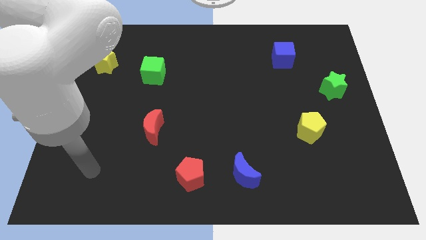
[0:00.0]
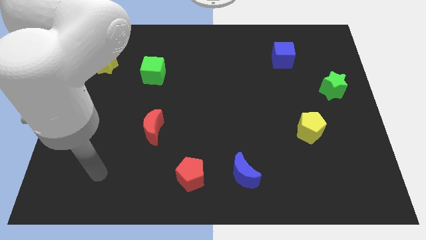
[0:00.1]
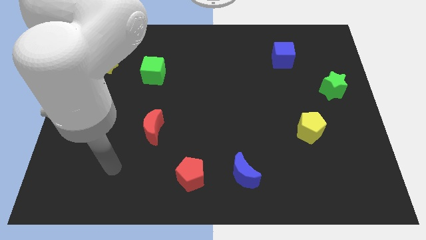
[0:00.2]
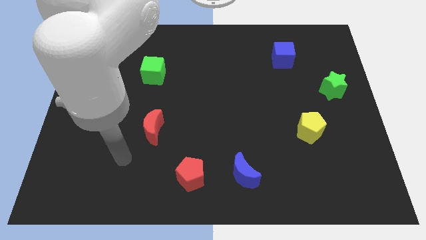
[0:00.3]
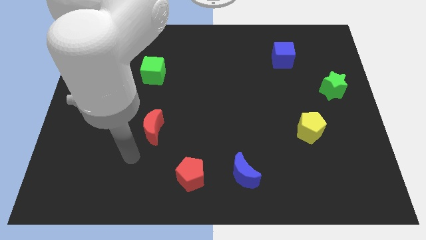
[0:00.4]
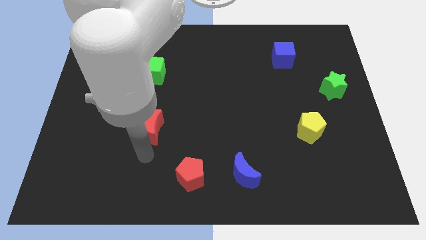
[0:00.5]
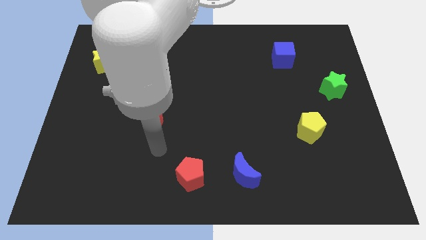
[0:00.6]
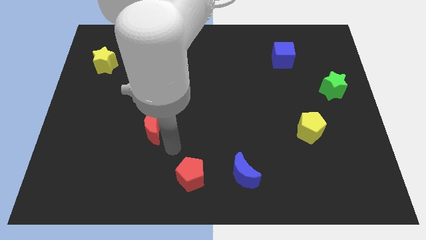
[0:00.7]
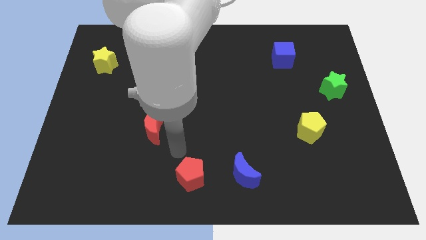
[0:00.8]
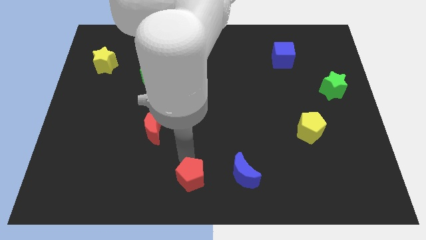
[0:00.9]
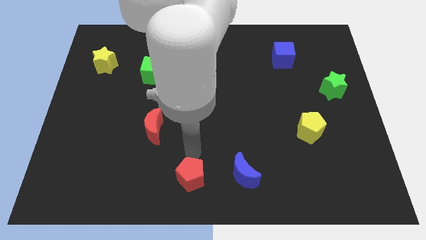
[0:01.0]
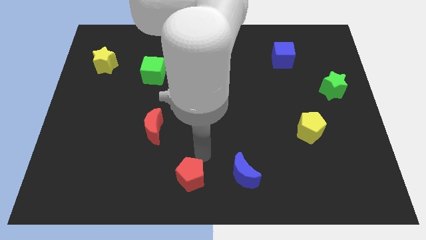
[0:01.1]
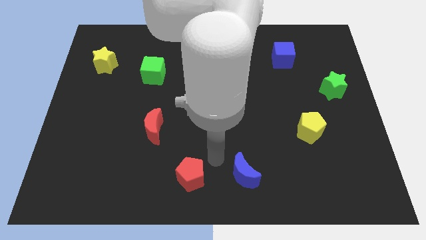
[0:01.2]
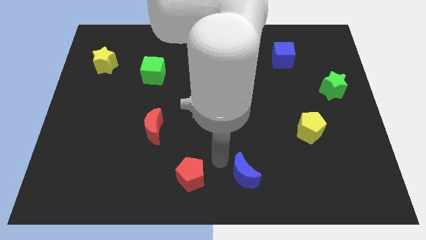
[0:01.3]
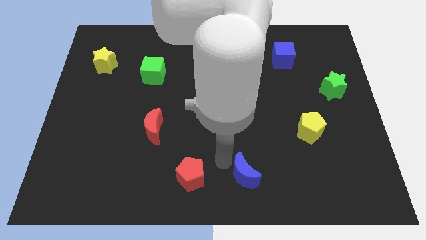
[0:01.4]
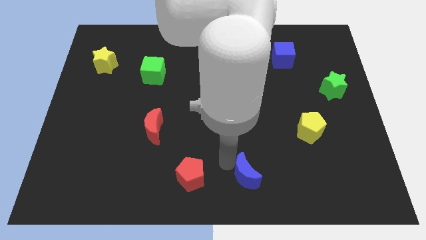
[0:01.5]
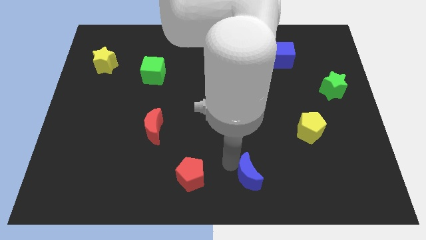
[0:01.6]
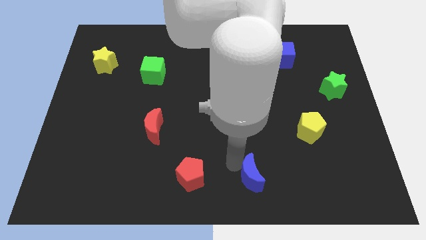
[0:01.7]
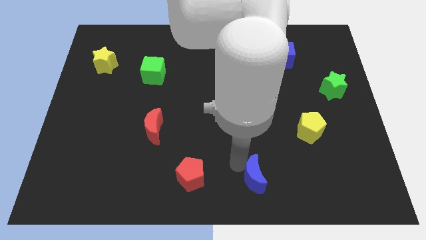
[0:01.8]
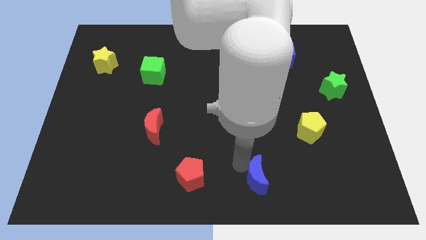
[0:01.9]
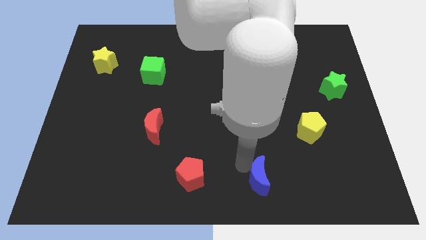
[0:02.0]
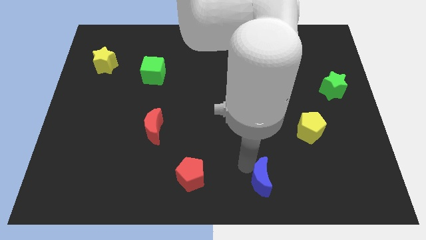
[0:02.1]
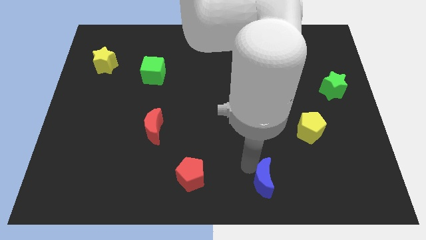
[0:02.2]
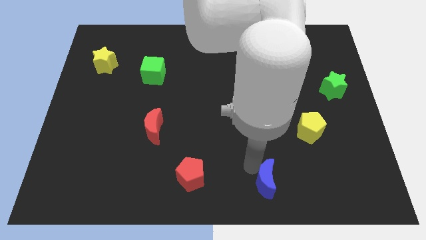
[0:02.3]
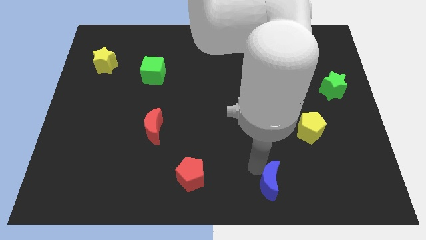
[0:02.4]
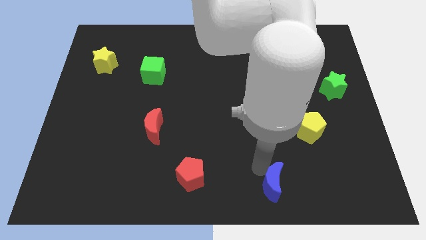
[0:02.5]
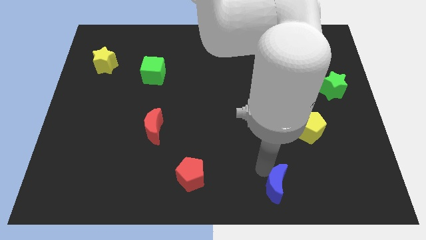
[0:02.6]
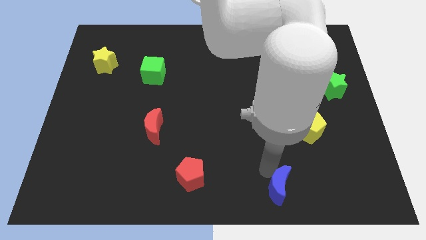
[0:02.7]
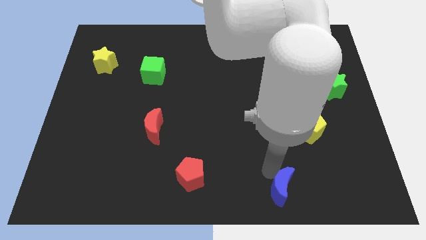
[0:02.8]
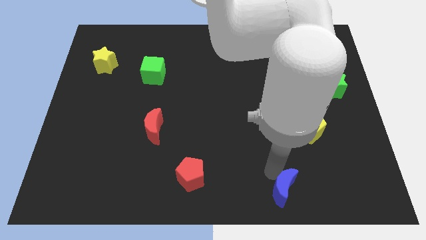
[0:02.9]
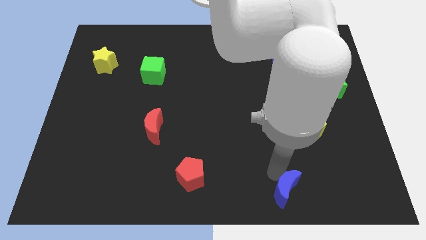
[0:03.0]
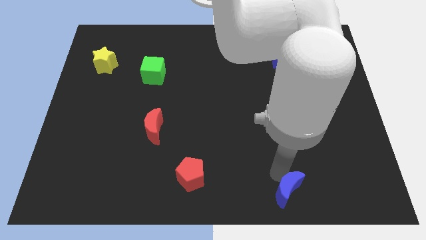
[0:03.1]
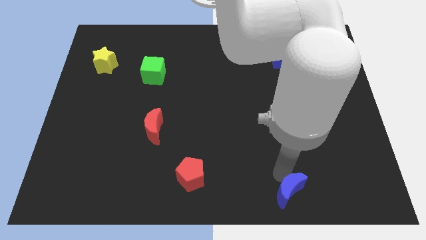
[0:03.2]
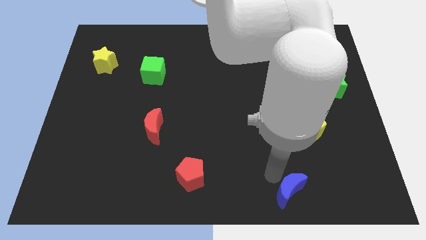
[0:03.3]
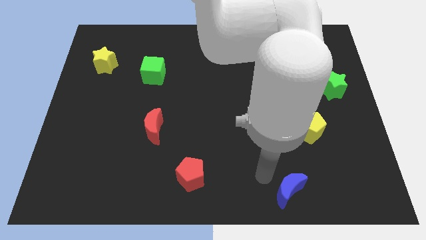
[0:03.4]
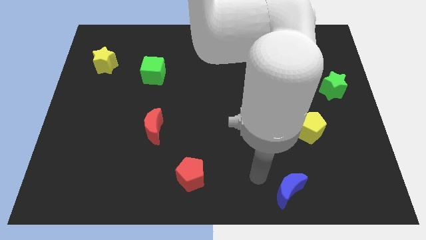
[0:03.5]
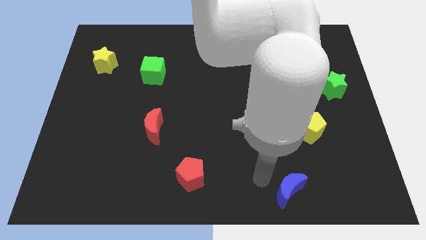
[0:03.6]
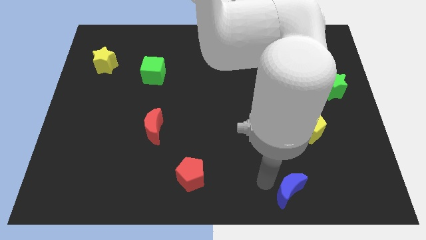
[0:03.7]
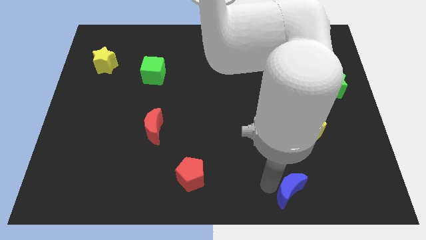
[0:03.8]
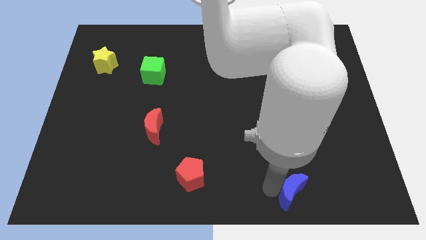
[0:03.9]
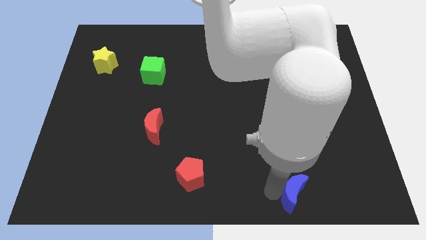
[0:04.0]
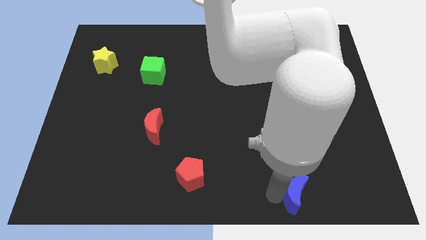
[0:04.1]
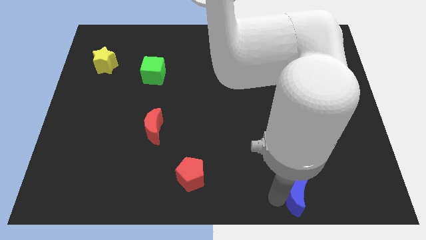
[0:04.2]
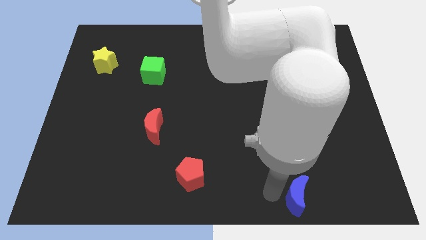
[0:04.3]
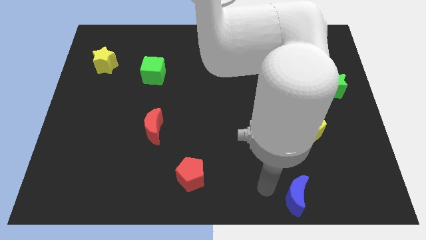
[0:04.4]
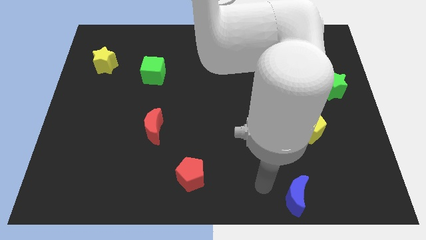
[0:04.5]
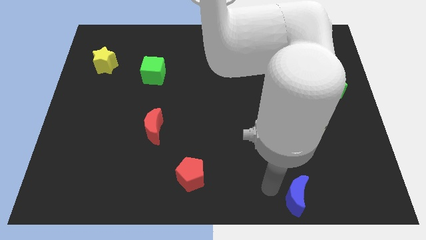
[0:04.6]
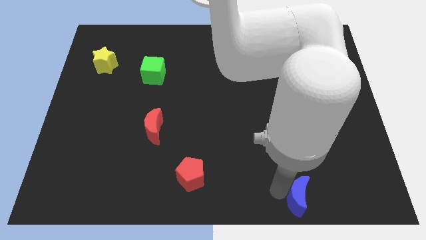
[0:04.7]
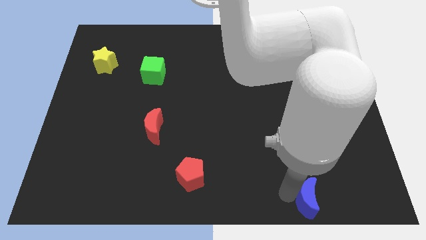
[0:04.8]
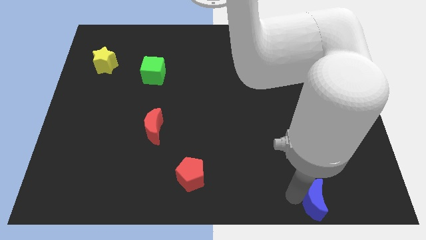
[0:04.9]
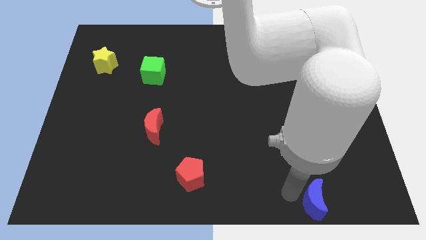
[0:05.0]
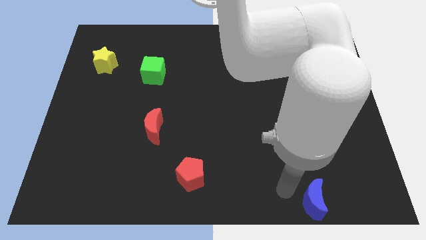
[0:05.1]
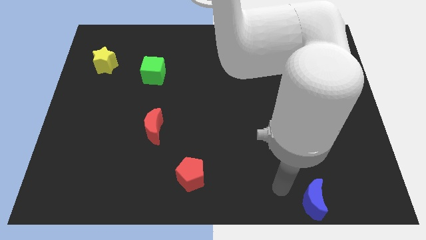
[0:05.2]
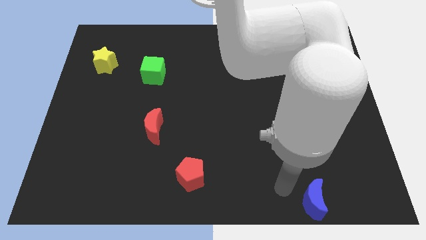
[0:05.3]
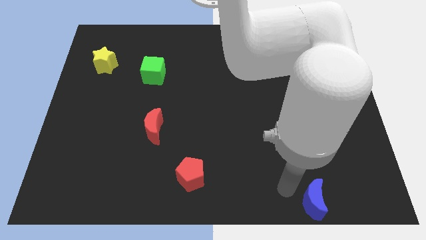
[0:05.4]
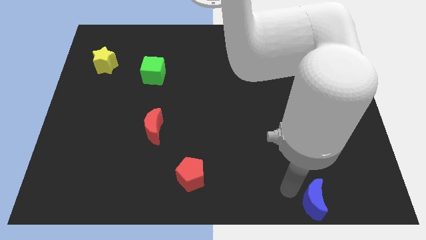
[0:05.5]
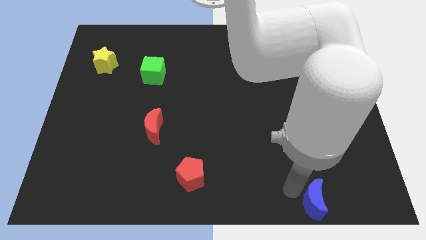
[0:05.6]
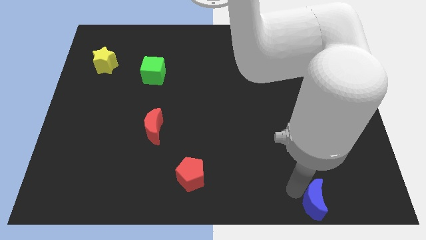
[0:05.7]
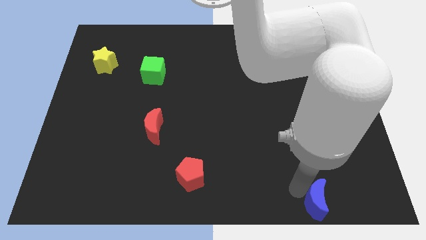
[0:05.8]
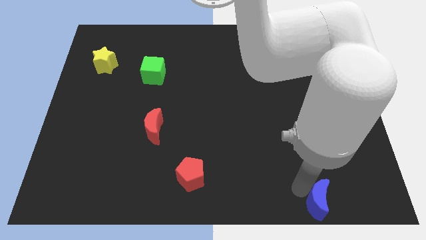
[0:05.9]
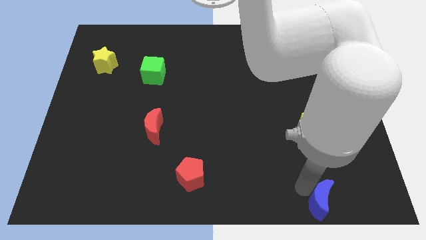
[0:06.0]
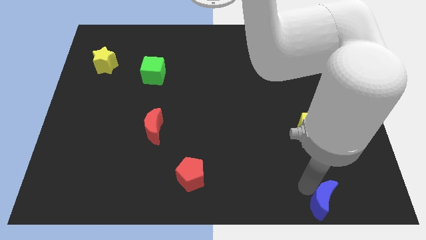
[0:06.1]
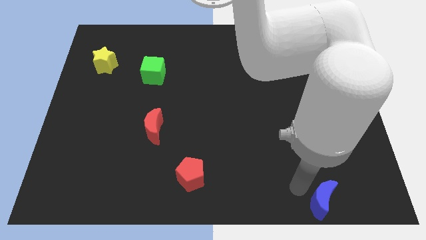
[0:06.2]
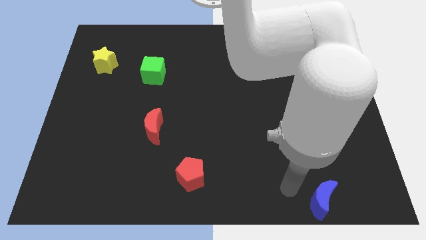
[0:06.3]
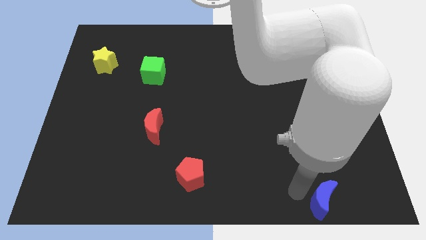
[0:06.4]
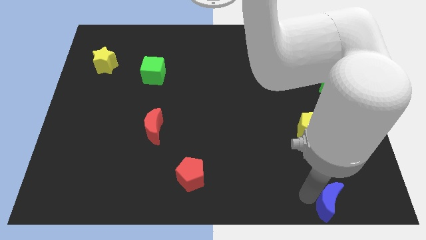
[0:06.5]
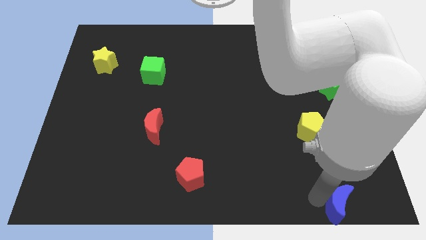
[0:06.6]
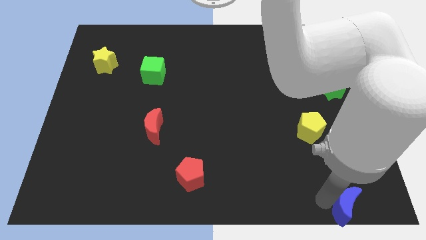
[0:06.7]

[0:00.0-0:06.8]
push the blue moon to the bottom right corner
